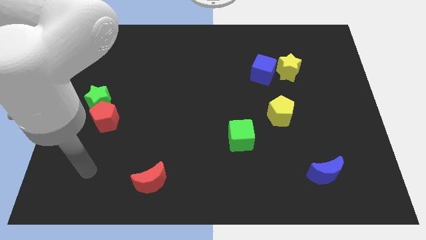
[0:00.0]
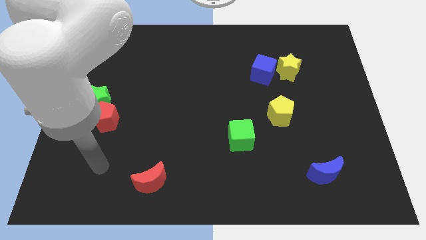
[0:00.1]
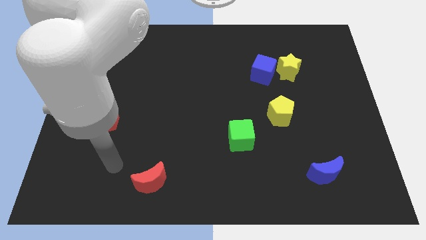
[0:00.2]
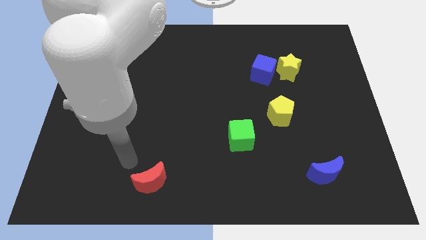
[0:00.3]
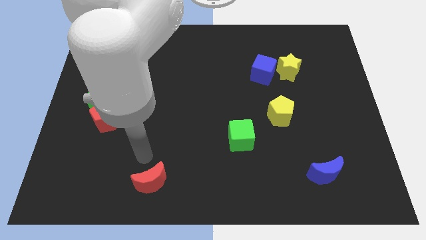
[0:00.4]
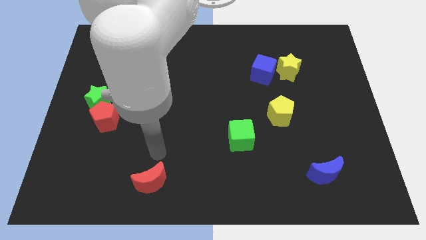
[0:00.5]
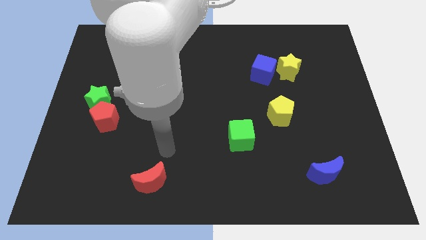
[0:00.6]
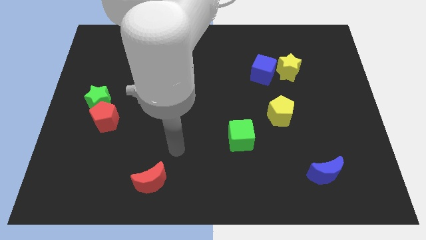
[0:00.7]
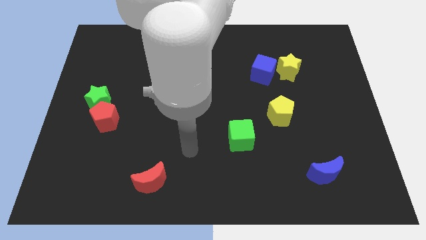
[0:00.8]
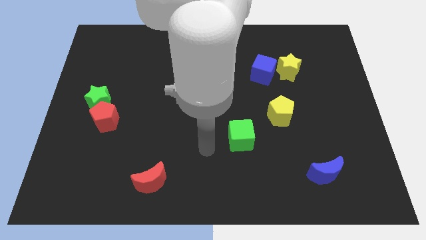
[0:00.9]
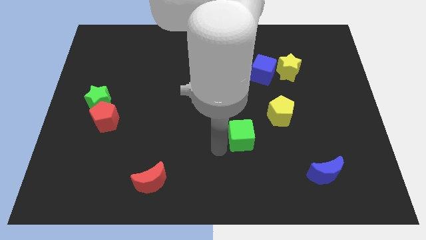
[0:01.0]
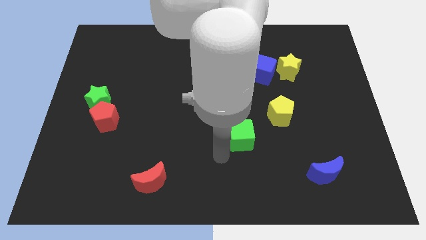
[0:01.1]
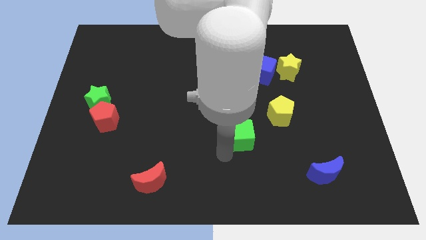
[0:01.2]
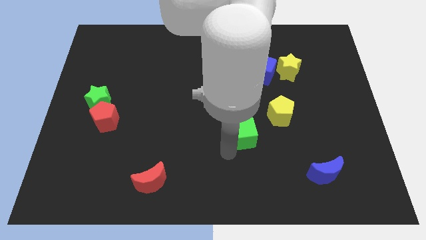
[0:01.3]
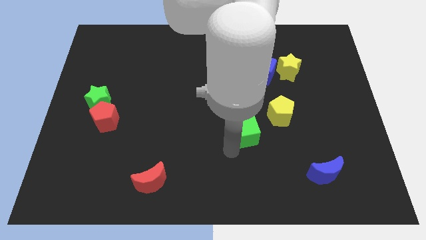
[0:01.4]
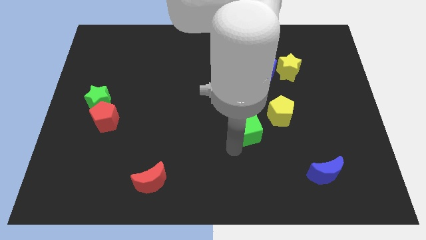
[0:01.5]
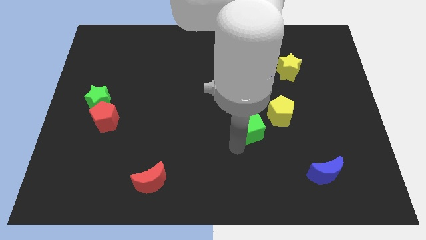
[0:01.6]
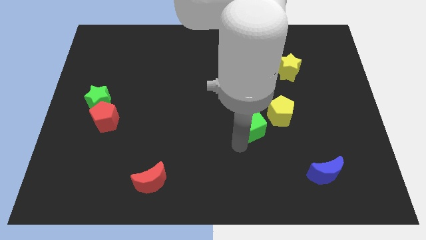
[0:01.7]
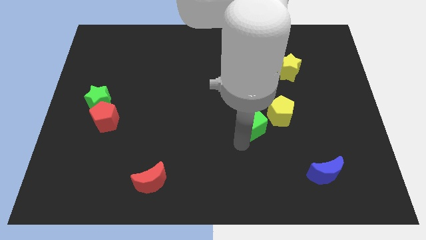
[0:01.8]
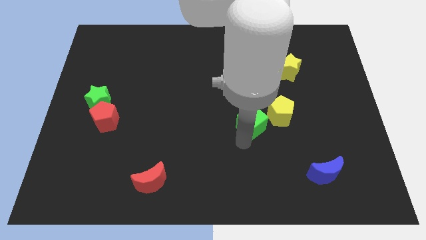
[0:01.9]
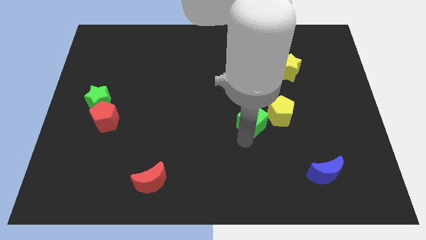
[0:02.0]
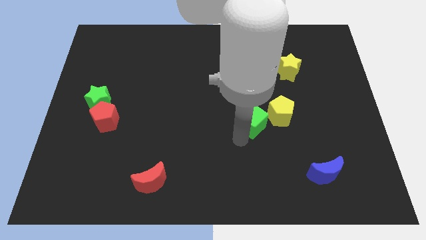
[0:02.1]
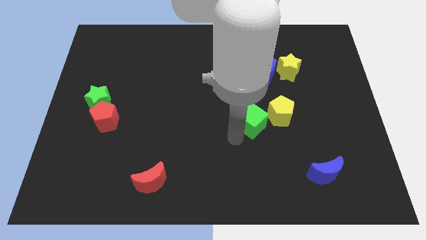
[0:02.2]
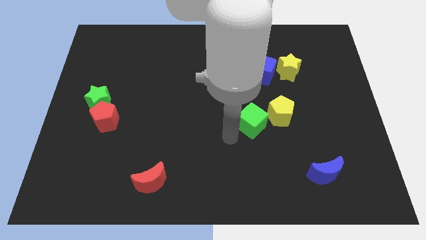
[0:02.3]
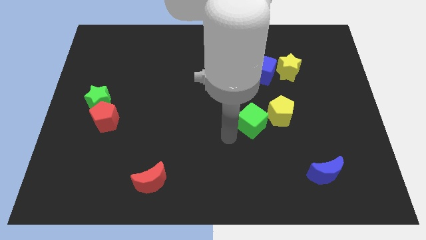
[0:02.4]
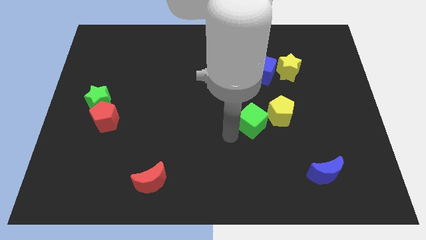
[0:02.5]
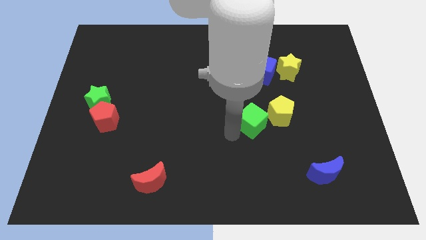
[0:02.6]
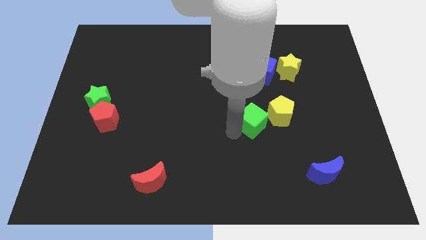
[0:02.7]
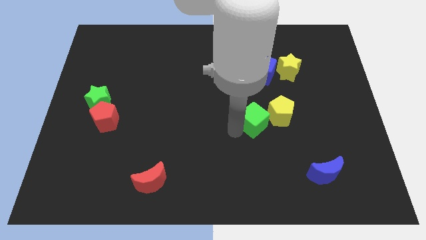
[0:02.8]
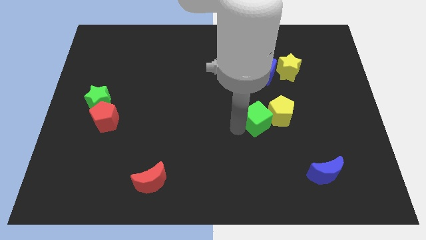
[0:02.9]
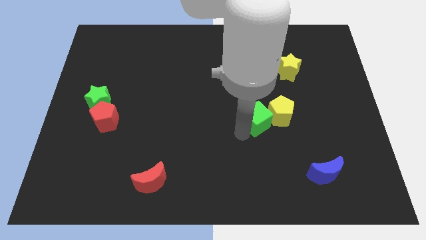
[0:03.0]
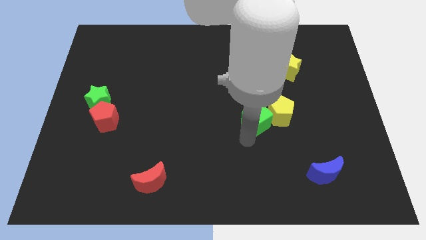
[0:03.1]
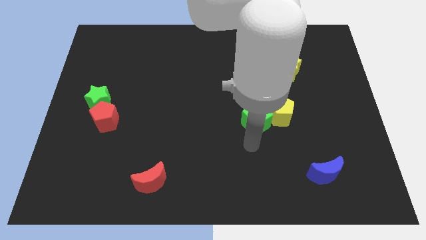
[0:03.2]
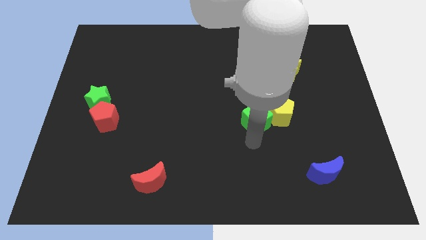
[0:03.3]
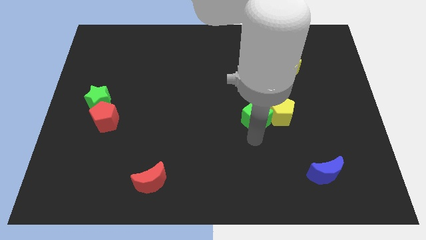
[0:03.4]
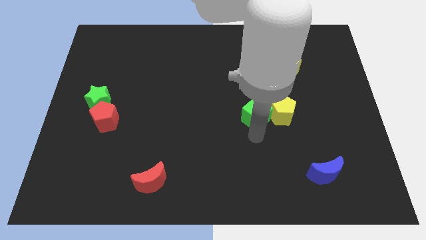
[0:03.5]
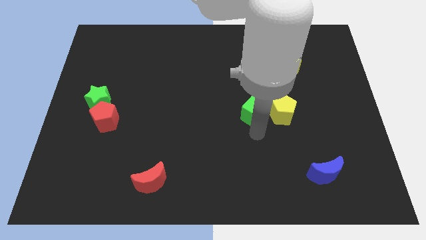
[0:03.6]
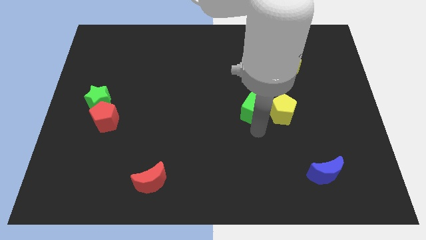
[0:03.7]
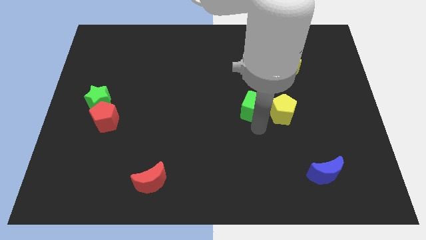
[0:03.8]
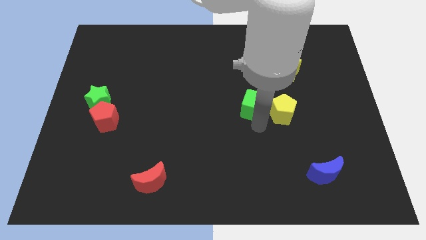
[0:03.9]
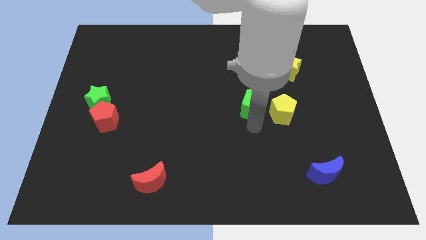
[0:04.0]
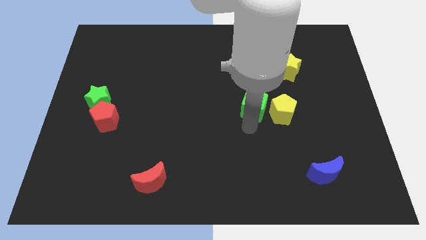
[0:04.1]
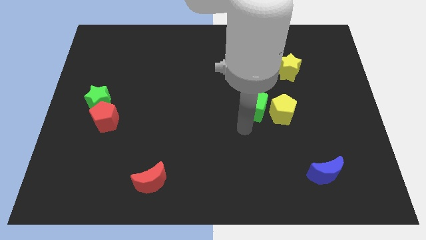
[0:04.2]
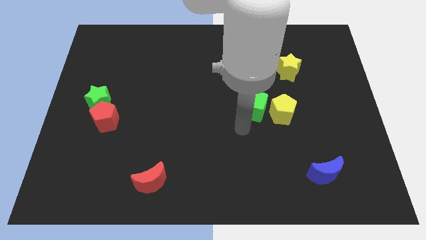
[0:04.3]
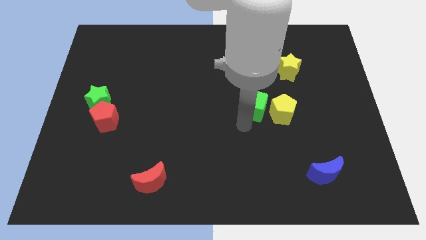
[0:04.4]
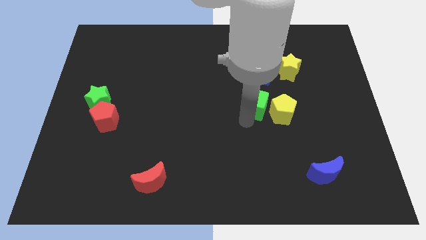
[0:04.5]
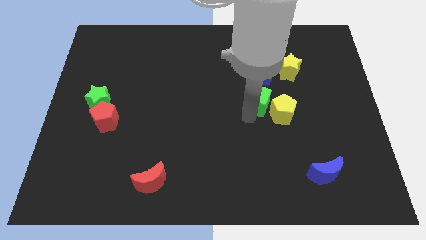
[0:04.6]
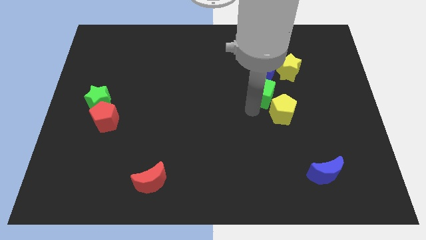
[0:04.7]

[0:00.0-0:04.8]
slide the green cube above the yellow pentagon

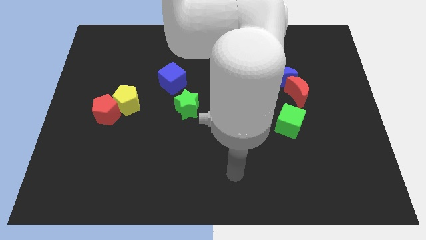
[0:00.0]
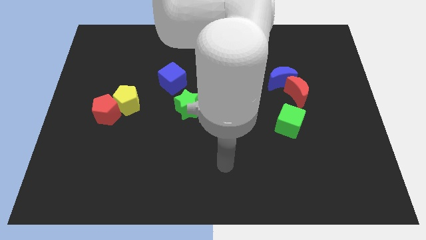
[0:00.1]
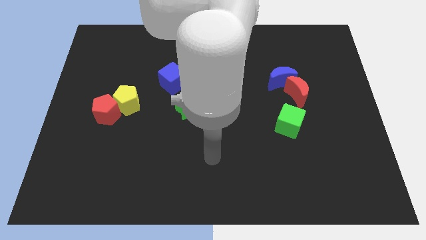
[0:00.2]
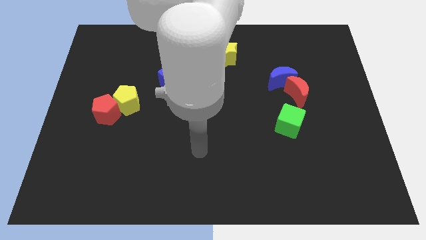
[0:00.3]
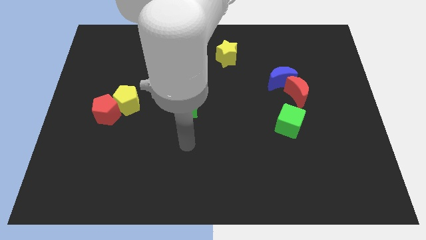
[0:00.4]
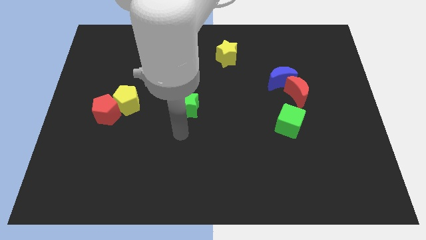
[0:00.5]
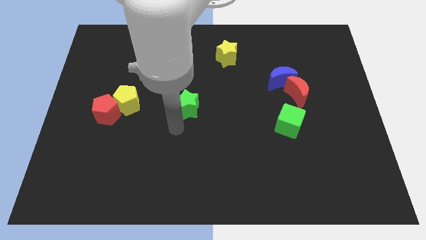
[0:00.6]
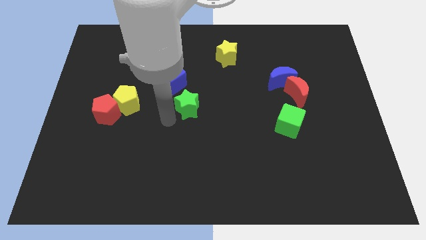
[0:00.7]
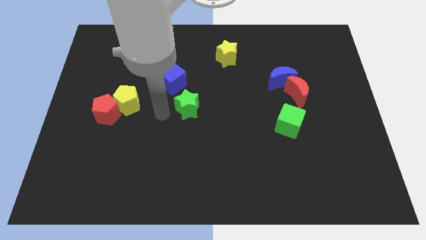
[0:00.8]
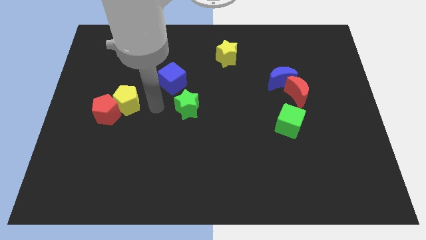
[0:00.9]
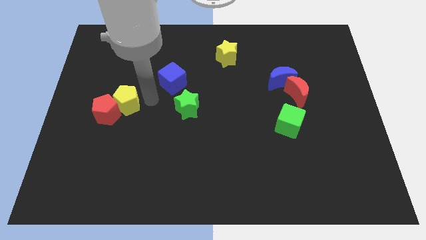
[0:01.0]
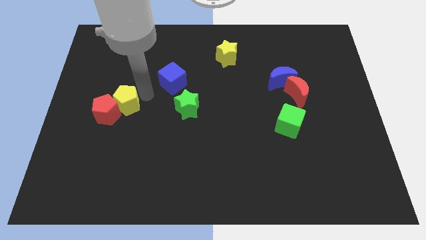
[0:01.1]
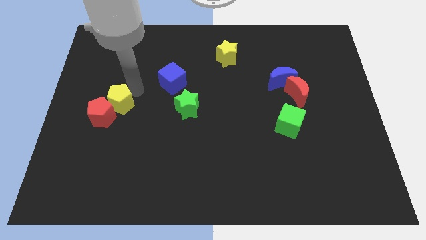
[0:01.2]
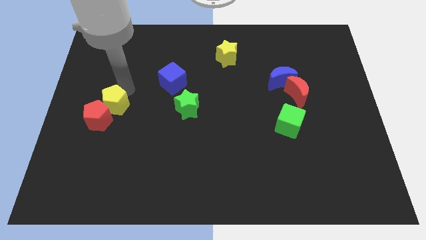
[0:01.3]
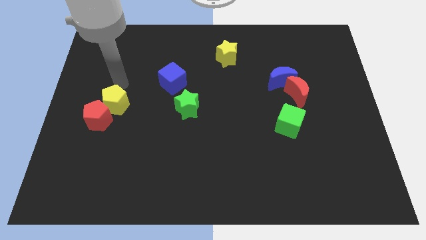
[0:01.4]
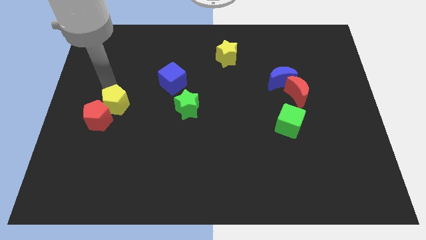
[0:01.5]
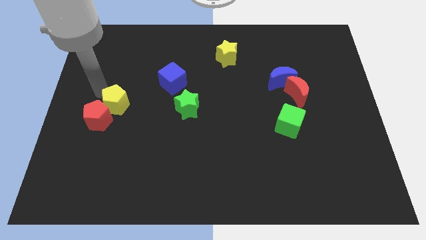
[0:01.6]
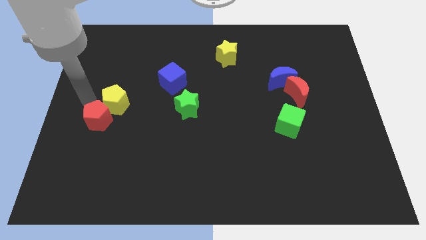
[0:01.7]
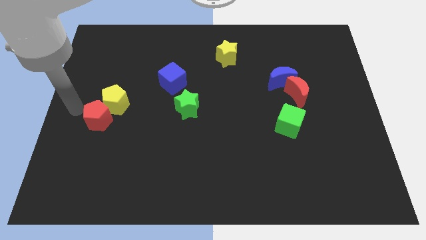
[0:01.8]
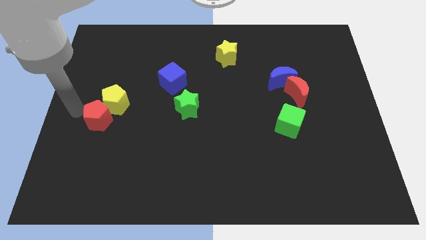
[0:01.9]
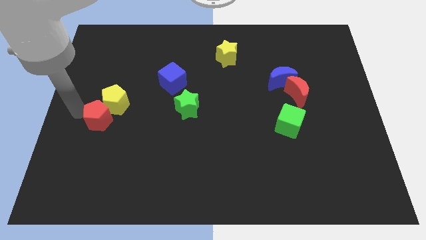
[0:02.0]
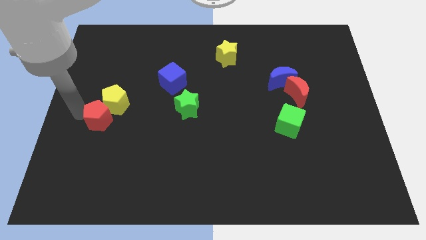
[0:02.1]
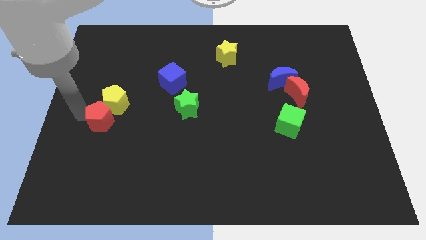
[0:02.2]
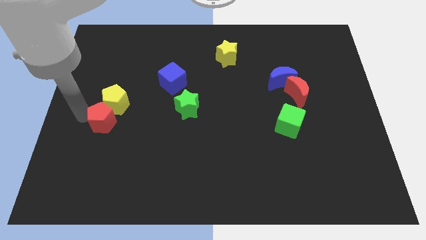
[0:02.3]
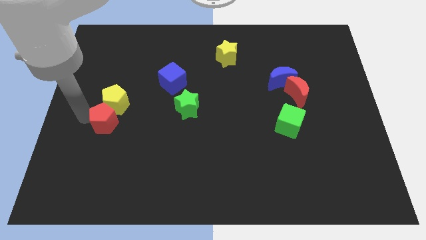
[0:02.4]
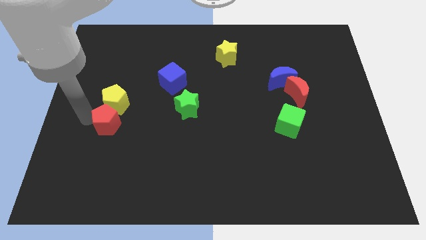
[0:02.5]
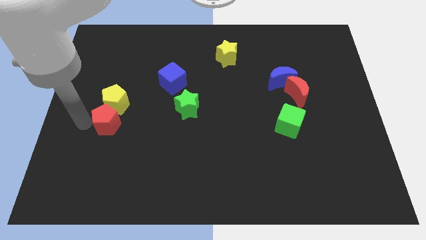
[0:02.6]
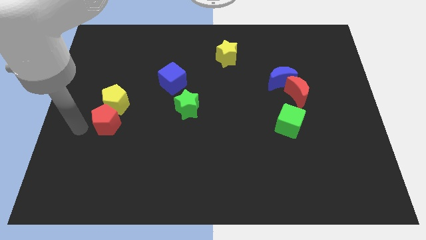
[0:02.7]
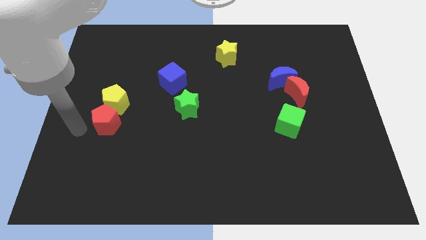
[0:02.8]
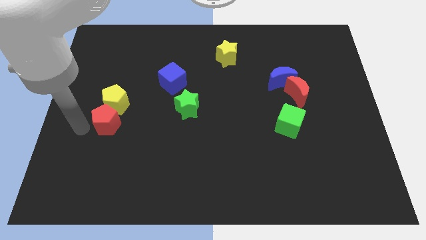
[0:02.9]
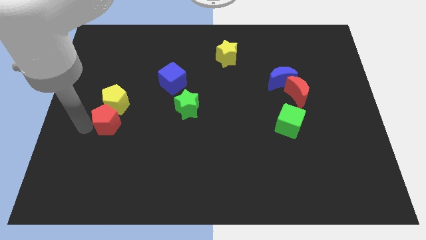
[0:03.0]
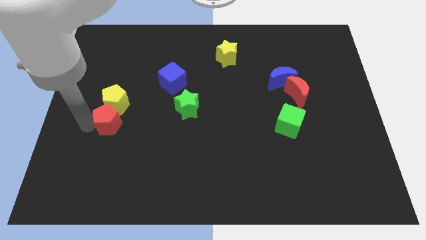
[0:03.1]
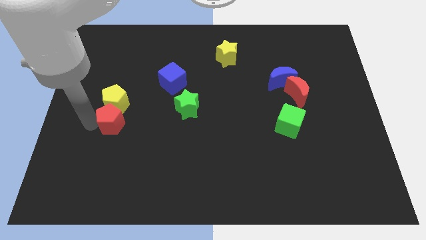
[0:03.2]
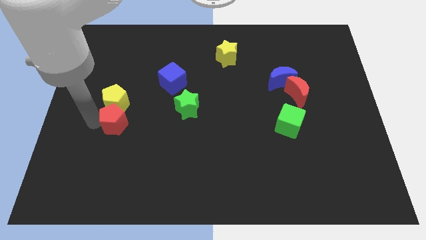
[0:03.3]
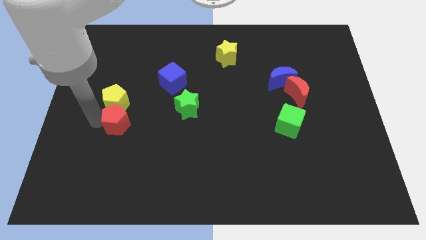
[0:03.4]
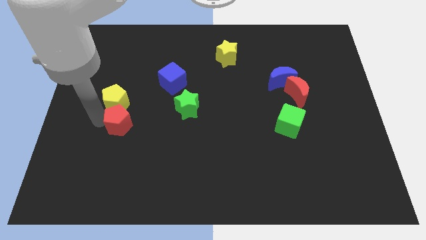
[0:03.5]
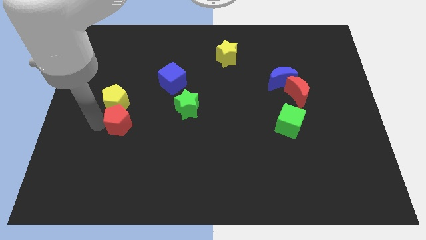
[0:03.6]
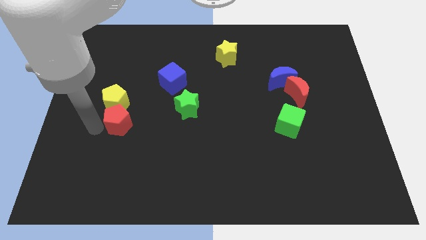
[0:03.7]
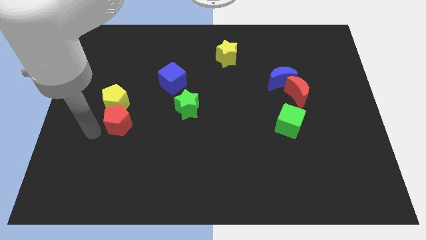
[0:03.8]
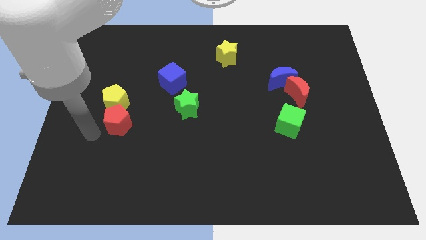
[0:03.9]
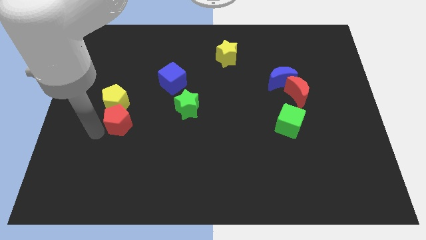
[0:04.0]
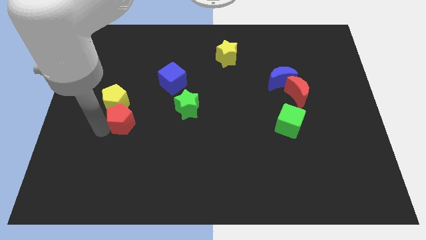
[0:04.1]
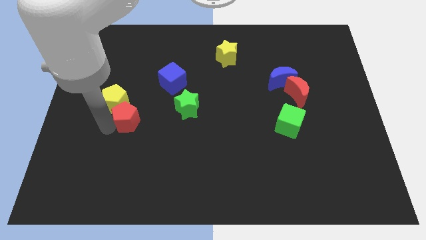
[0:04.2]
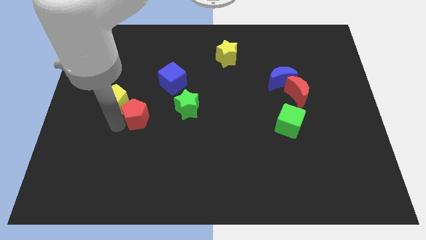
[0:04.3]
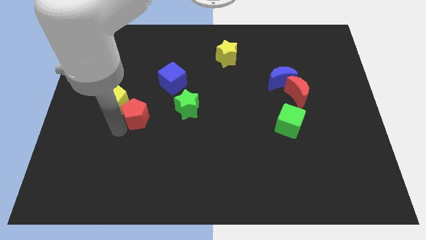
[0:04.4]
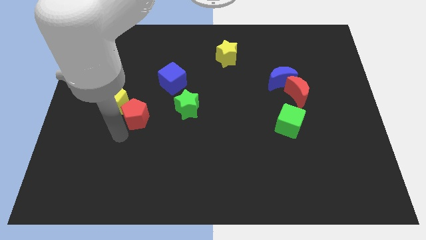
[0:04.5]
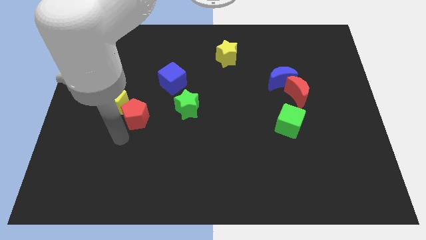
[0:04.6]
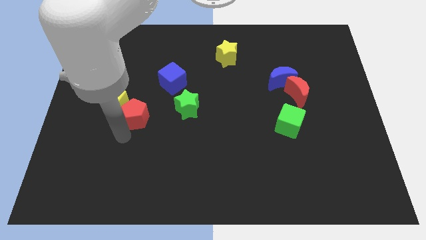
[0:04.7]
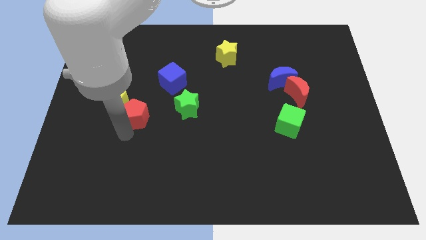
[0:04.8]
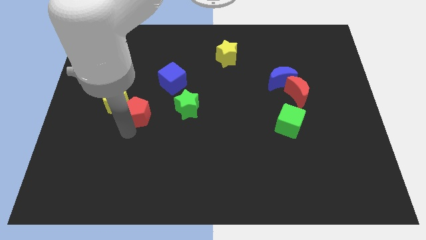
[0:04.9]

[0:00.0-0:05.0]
slide the red pentagon diagonally down and to the left of the blue cube
